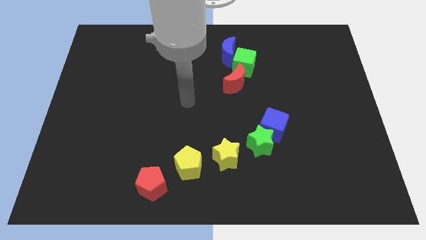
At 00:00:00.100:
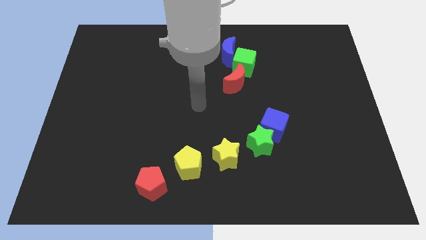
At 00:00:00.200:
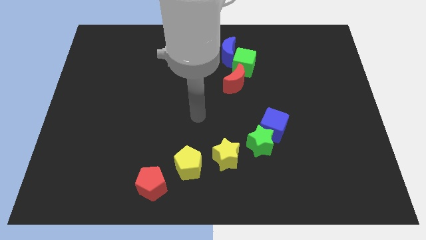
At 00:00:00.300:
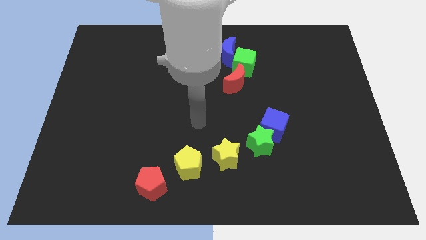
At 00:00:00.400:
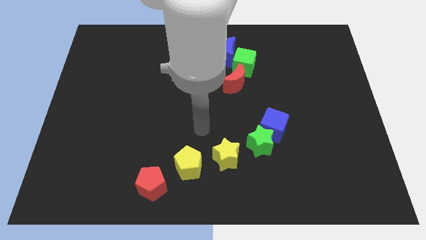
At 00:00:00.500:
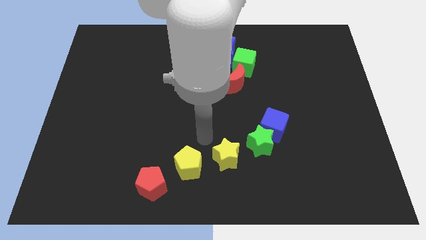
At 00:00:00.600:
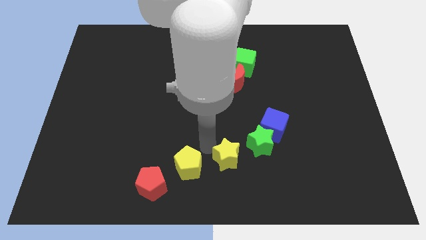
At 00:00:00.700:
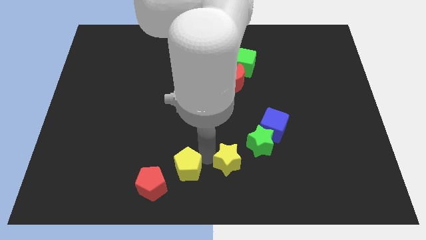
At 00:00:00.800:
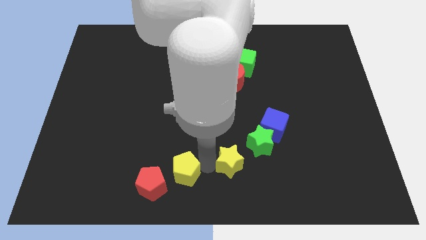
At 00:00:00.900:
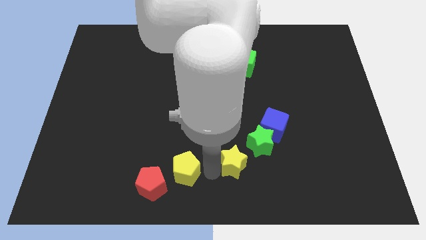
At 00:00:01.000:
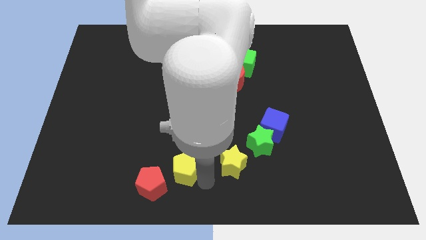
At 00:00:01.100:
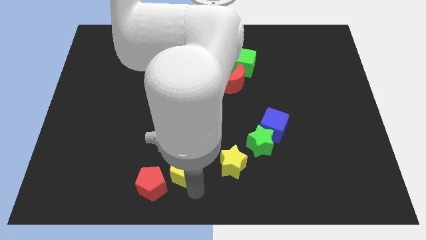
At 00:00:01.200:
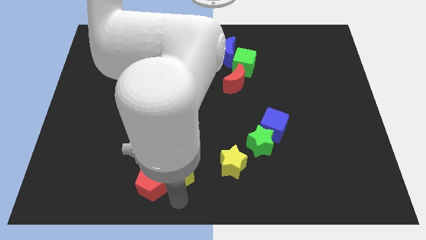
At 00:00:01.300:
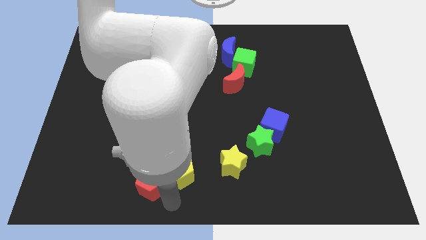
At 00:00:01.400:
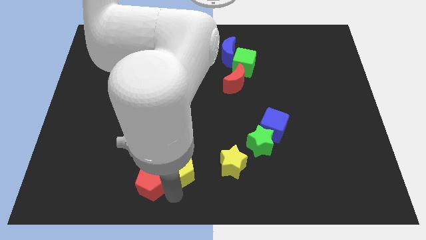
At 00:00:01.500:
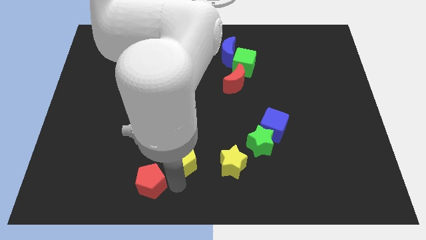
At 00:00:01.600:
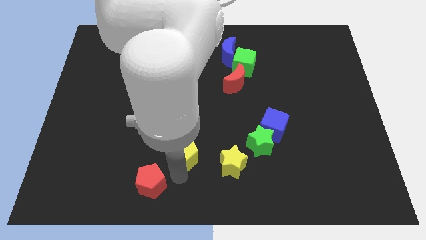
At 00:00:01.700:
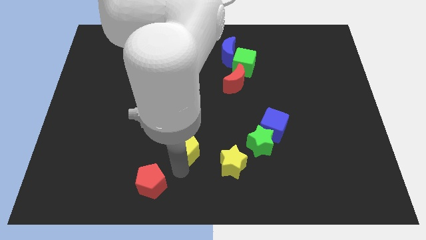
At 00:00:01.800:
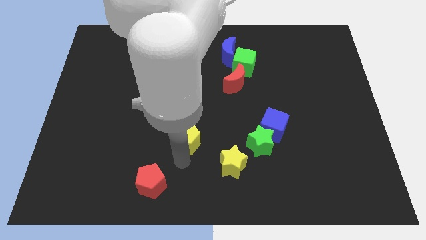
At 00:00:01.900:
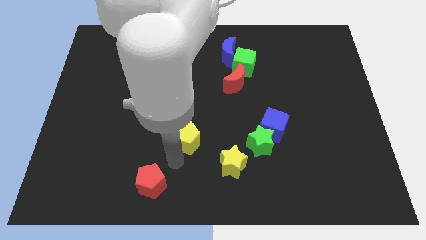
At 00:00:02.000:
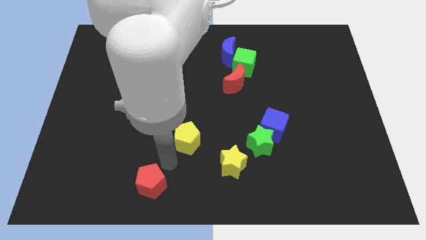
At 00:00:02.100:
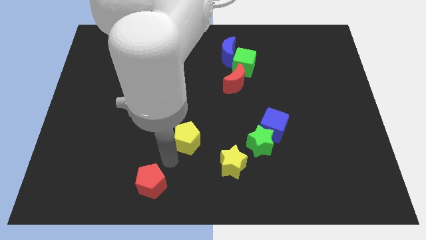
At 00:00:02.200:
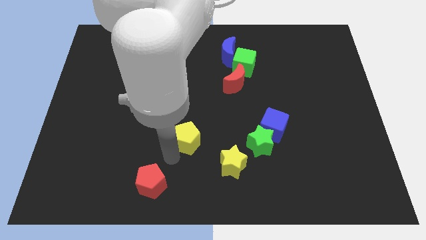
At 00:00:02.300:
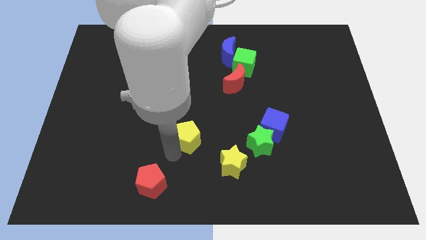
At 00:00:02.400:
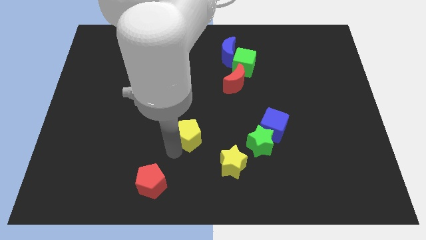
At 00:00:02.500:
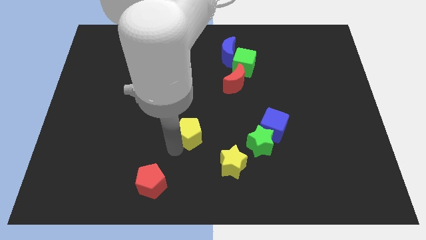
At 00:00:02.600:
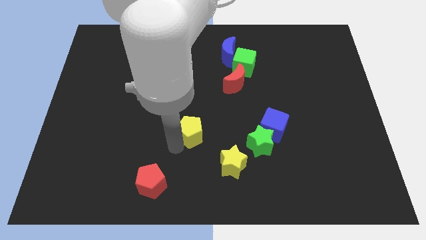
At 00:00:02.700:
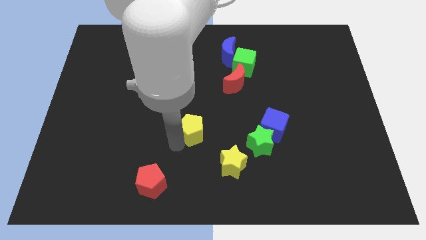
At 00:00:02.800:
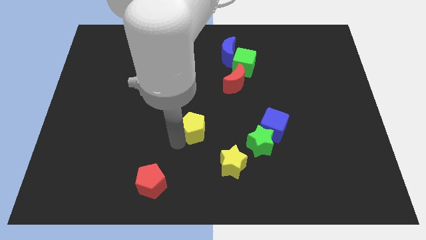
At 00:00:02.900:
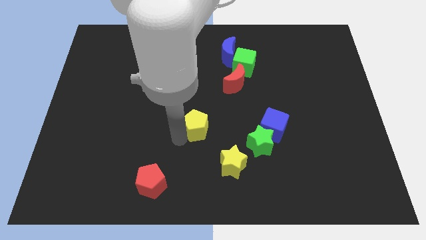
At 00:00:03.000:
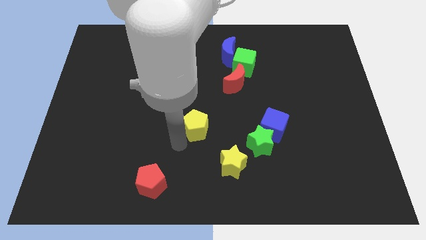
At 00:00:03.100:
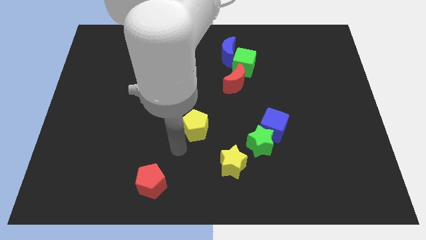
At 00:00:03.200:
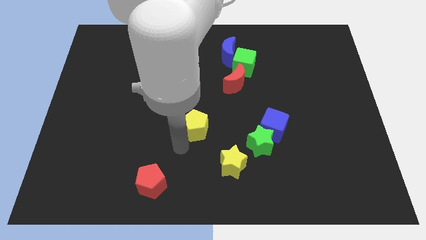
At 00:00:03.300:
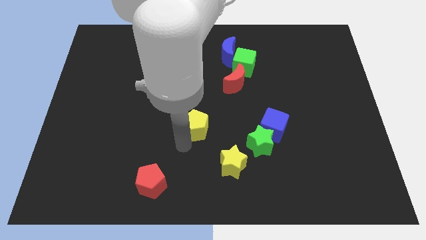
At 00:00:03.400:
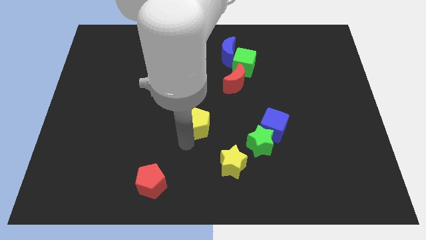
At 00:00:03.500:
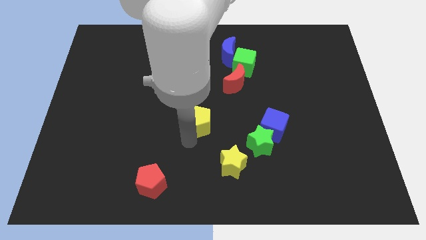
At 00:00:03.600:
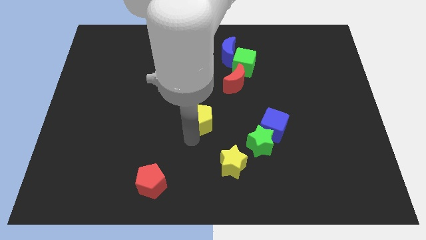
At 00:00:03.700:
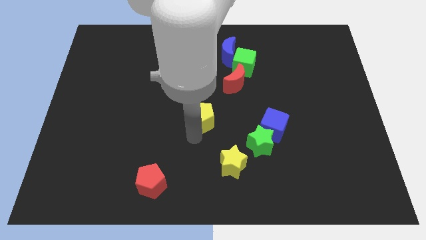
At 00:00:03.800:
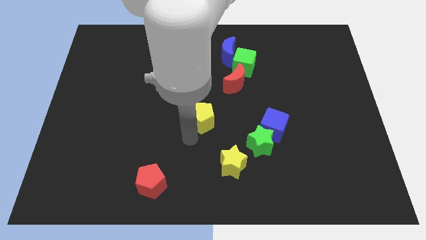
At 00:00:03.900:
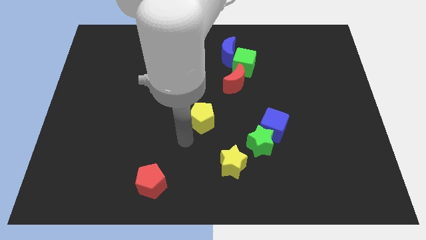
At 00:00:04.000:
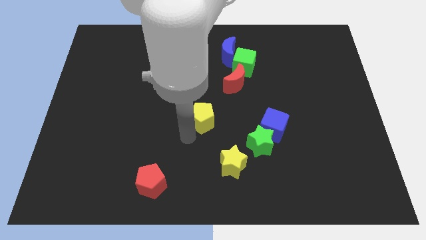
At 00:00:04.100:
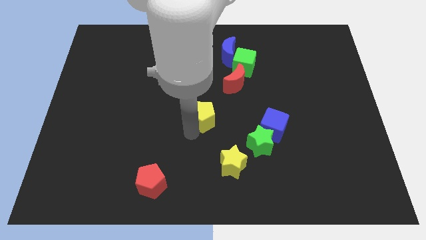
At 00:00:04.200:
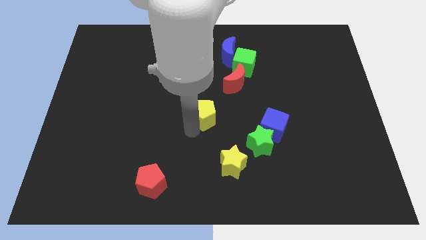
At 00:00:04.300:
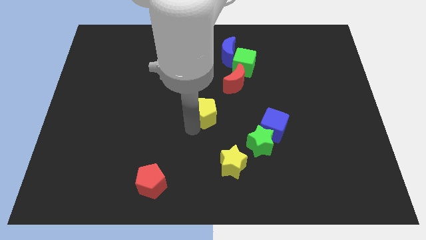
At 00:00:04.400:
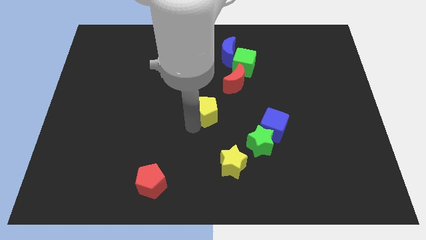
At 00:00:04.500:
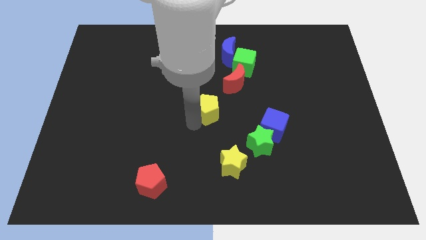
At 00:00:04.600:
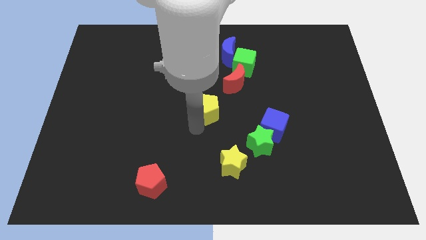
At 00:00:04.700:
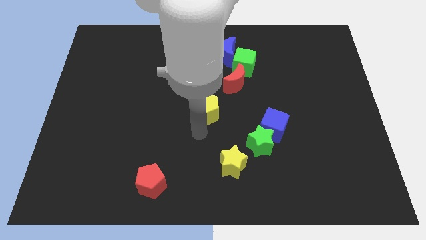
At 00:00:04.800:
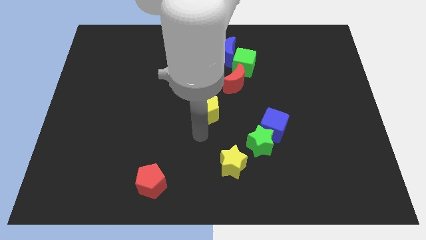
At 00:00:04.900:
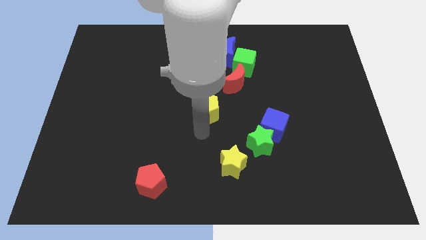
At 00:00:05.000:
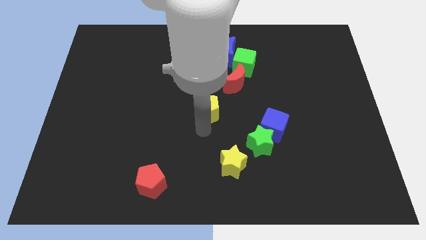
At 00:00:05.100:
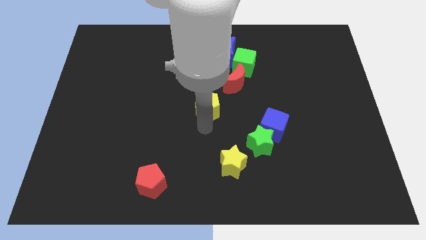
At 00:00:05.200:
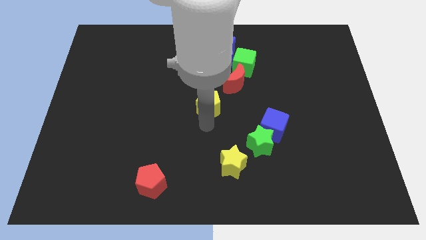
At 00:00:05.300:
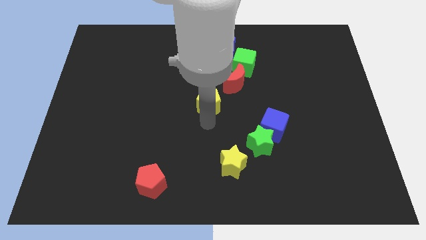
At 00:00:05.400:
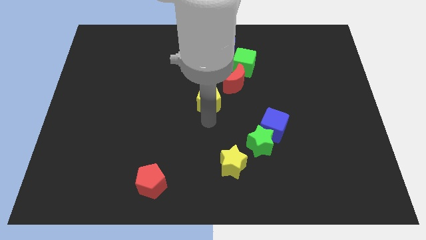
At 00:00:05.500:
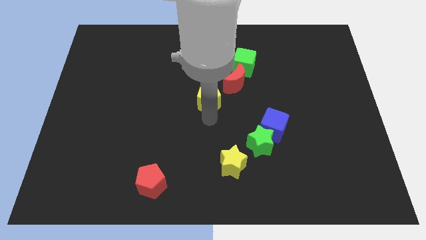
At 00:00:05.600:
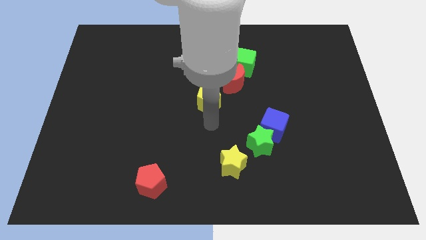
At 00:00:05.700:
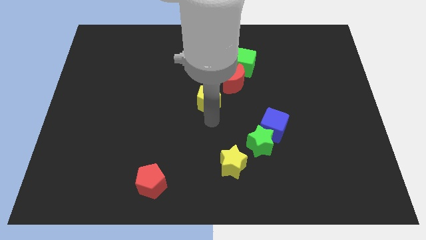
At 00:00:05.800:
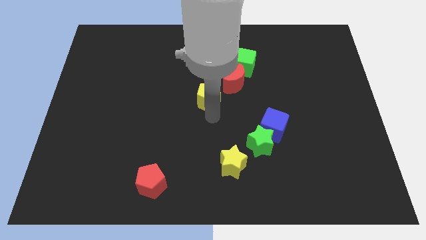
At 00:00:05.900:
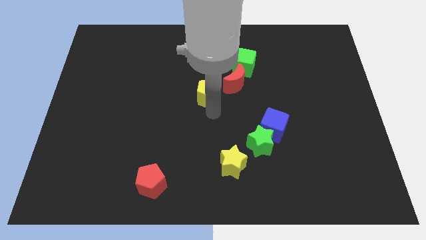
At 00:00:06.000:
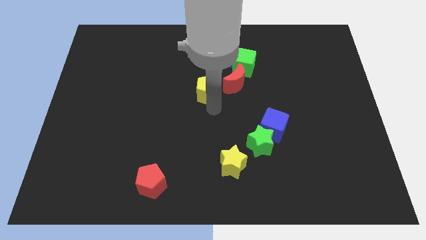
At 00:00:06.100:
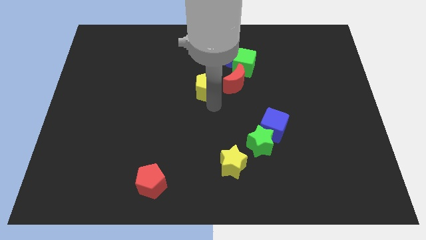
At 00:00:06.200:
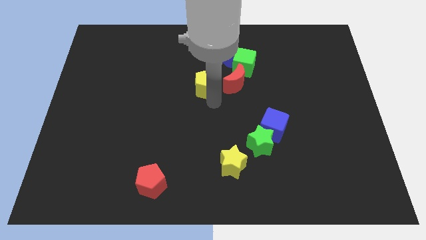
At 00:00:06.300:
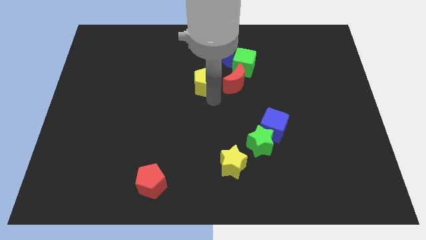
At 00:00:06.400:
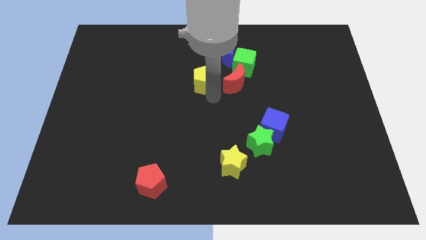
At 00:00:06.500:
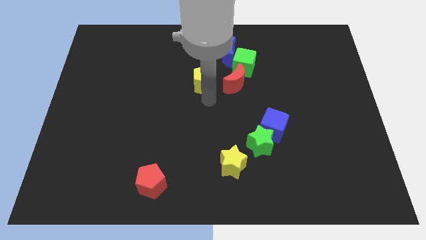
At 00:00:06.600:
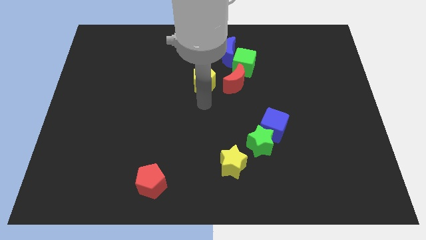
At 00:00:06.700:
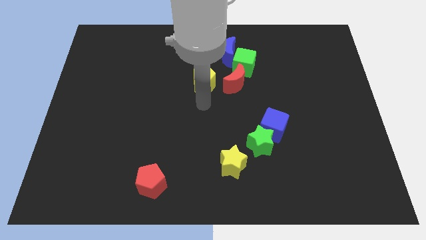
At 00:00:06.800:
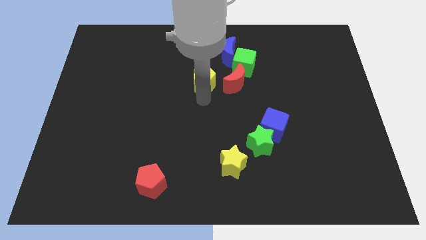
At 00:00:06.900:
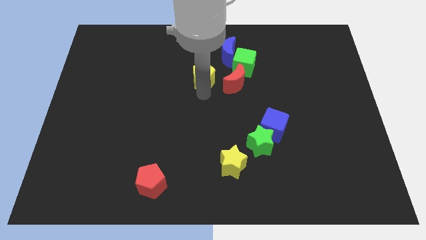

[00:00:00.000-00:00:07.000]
put the yellow pentagon to the left side of the green cube

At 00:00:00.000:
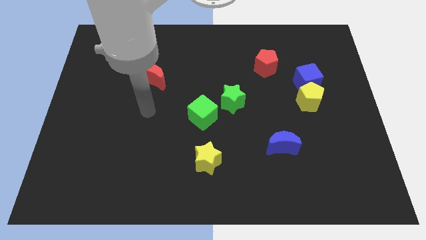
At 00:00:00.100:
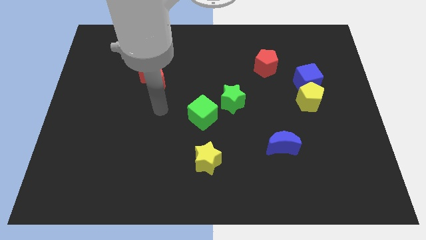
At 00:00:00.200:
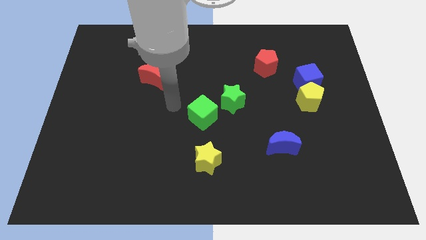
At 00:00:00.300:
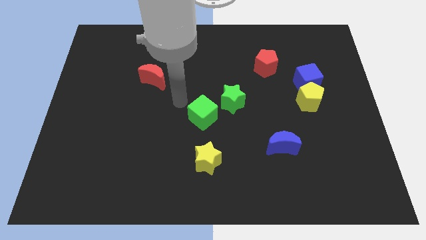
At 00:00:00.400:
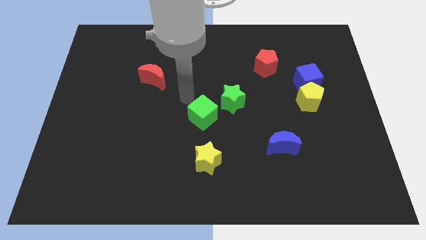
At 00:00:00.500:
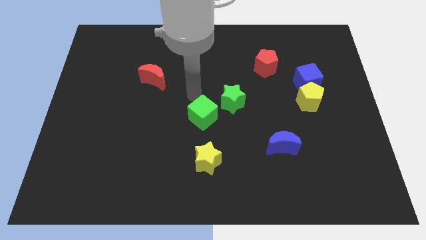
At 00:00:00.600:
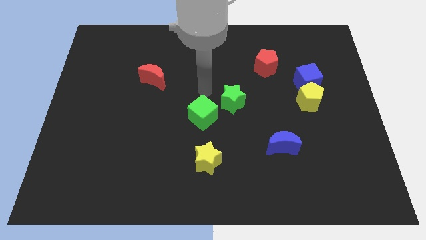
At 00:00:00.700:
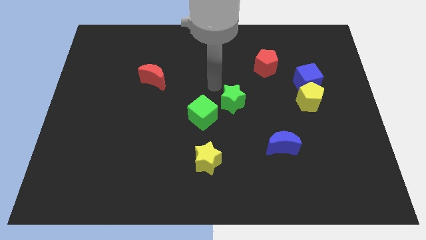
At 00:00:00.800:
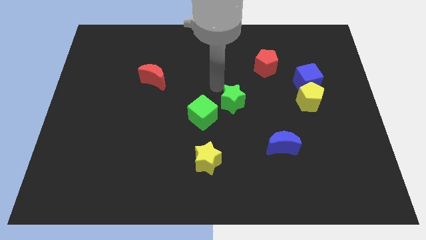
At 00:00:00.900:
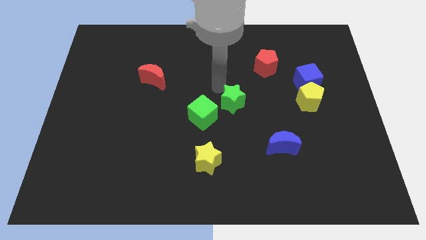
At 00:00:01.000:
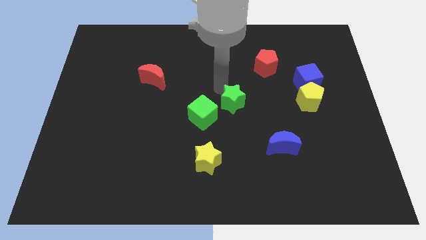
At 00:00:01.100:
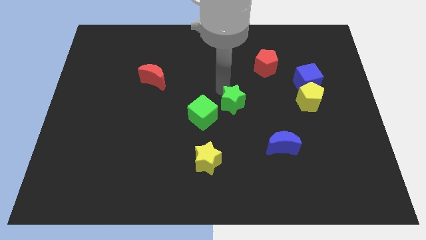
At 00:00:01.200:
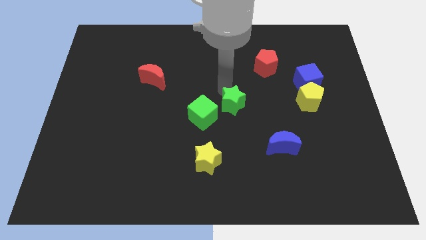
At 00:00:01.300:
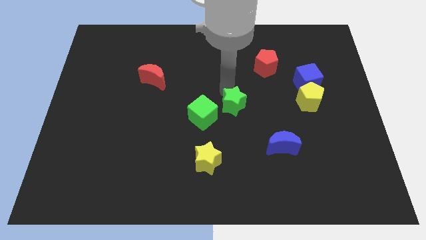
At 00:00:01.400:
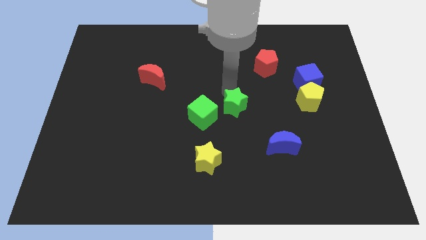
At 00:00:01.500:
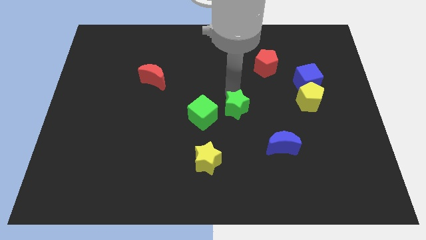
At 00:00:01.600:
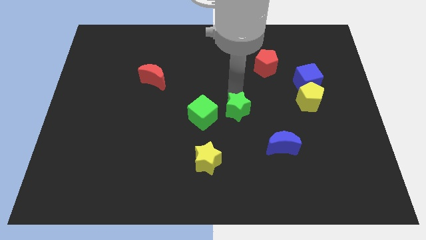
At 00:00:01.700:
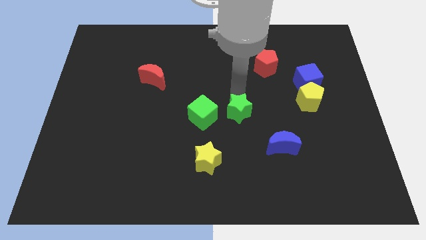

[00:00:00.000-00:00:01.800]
push the green star to the top left side of the blue moon
